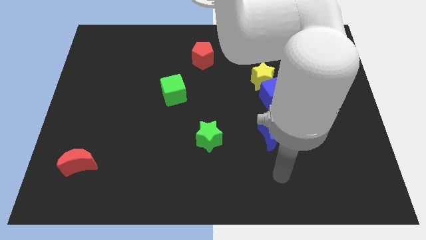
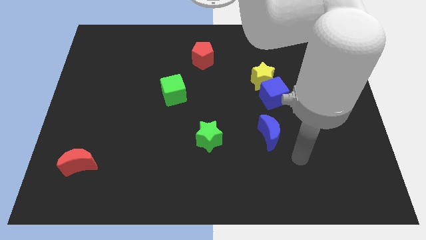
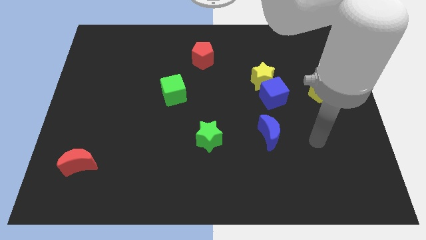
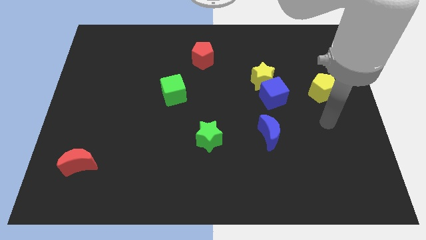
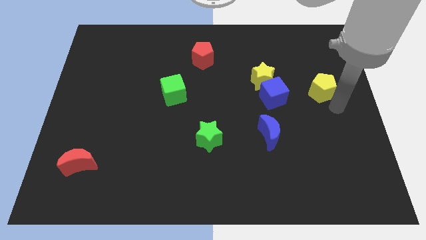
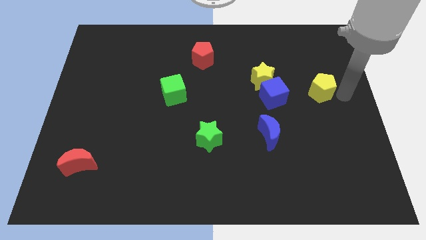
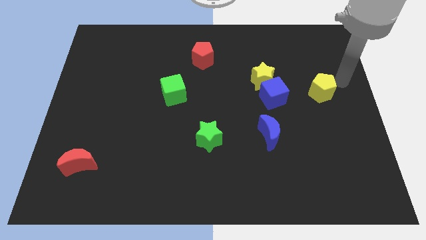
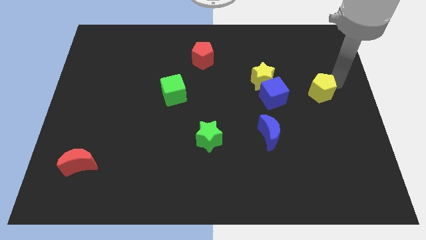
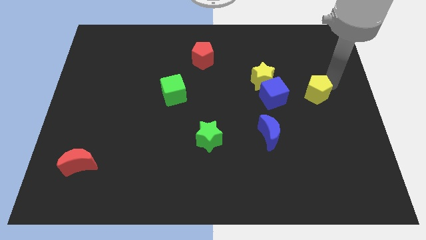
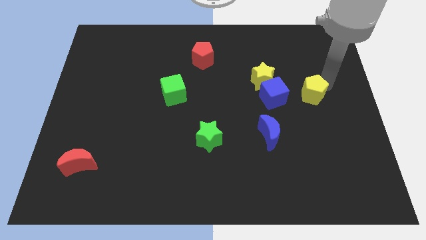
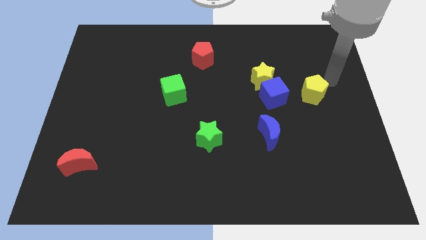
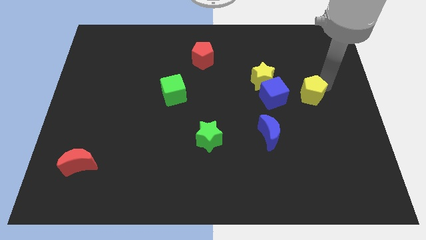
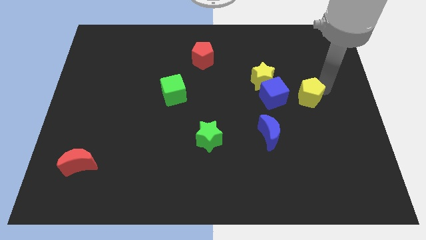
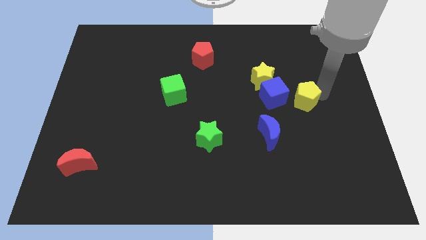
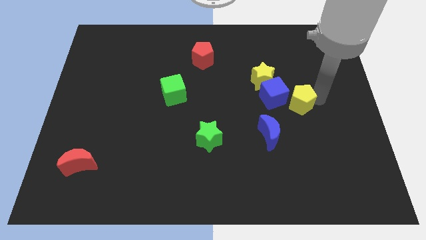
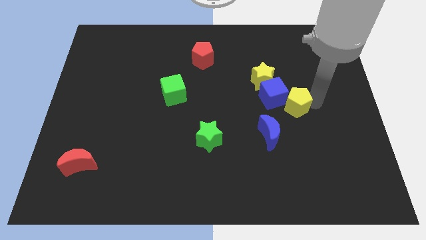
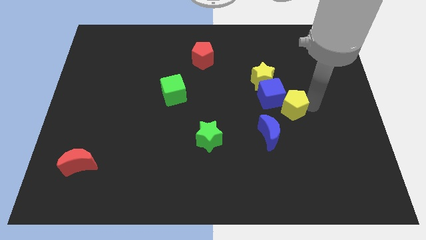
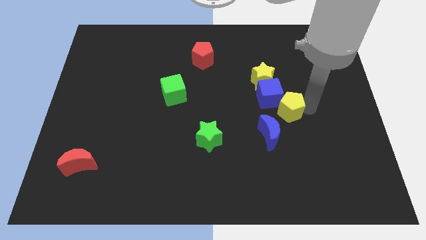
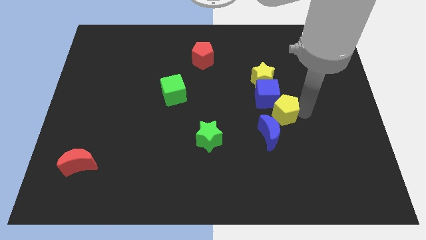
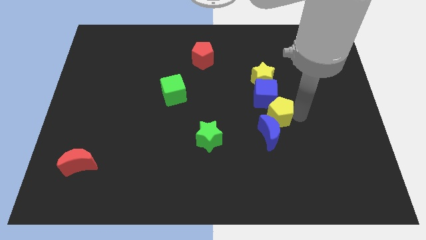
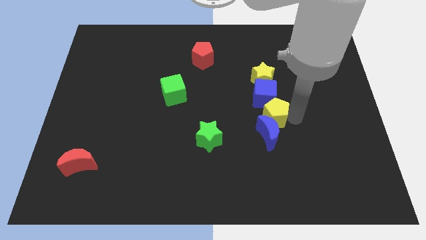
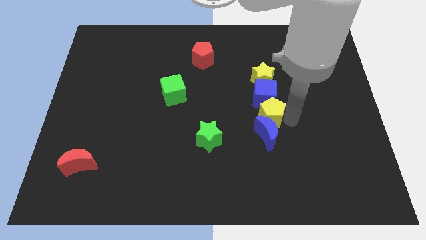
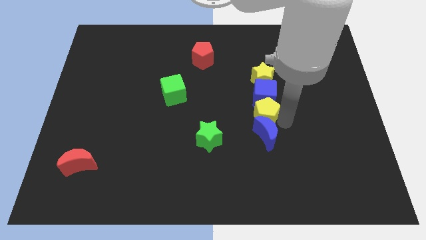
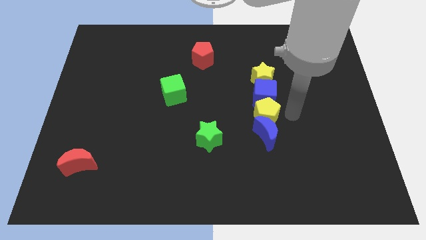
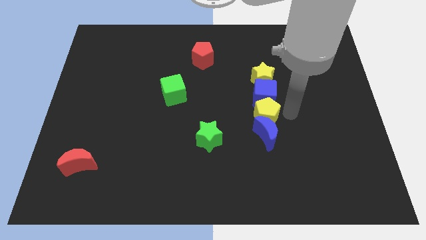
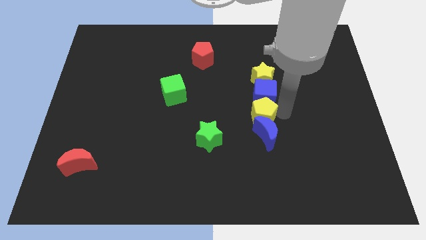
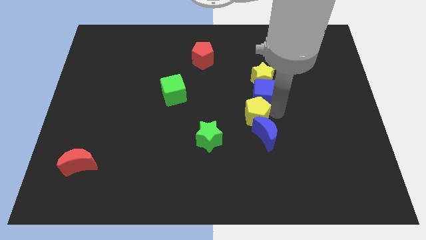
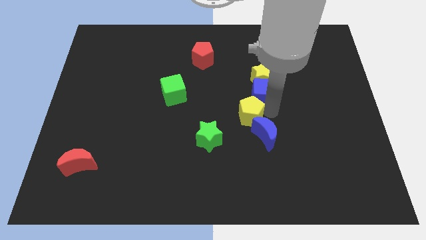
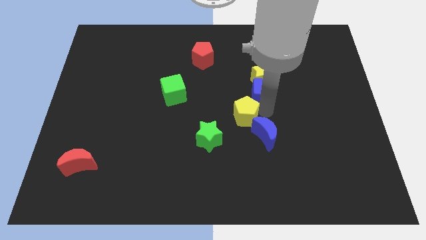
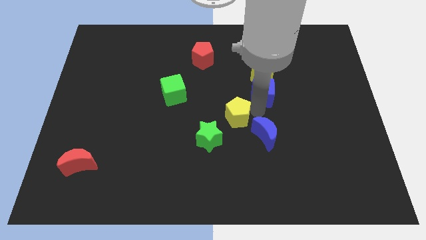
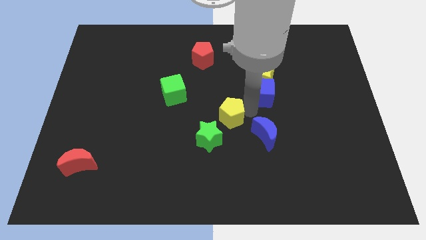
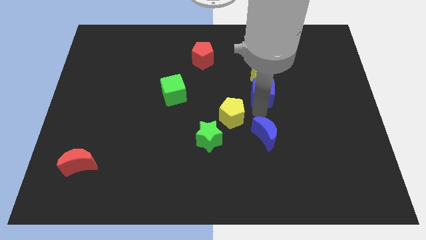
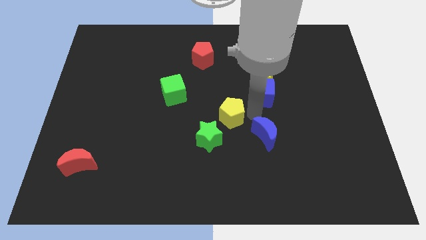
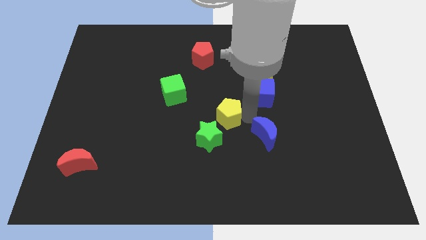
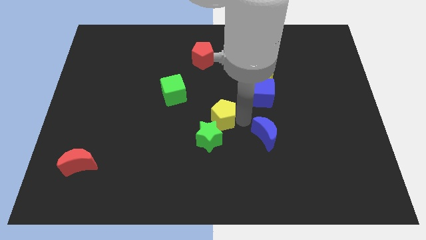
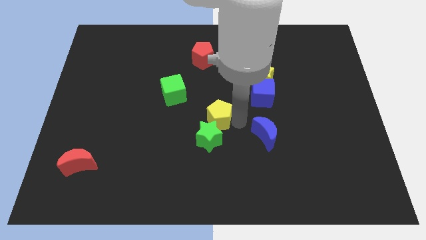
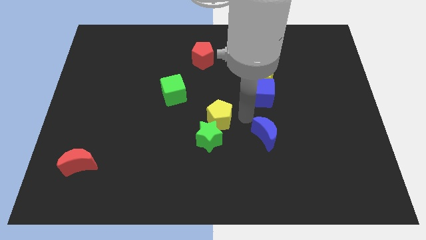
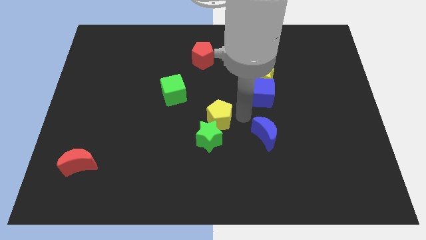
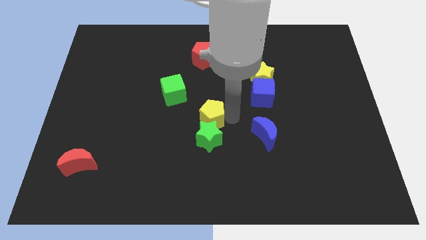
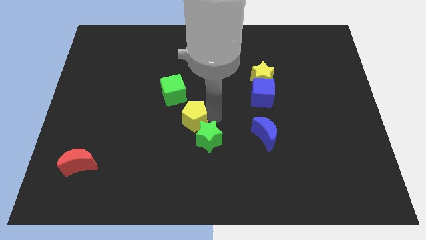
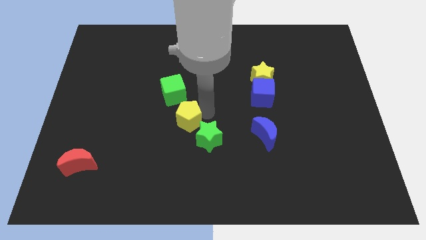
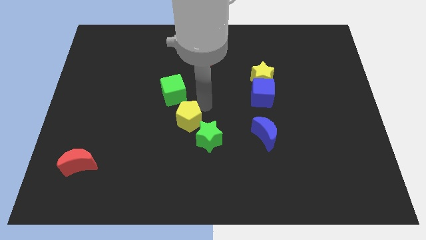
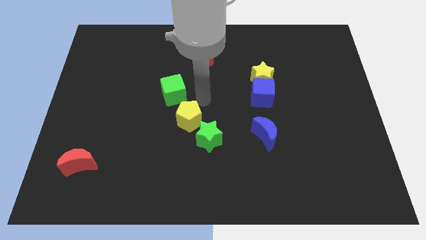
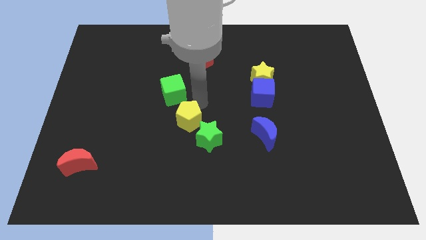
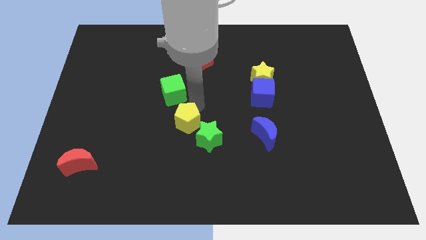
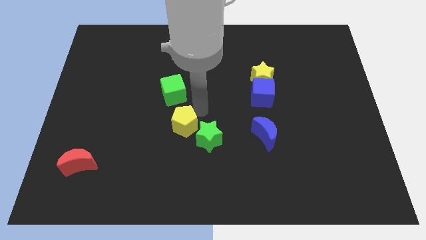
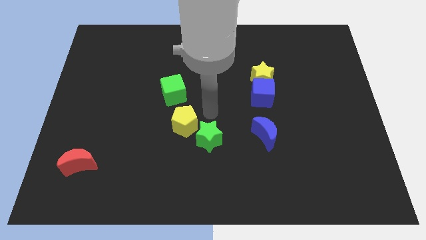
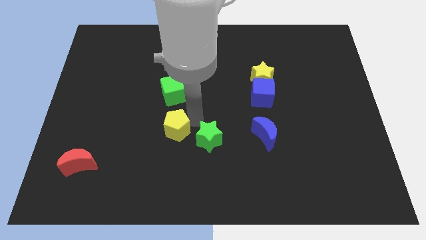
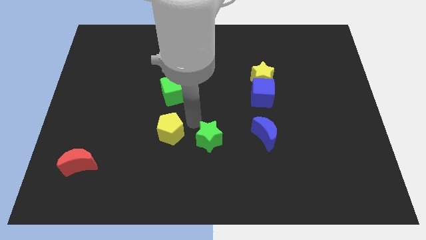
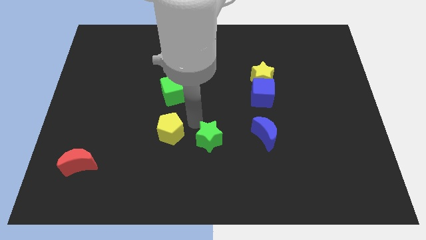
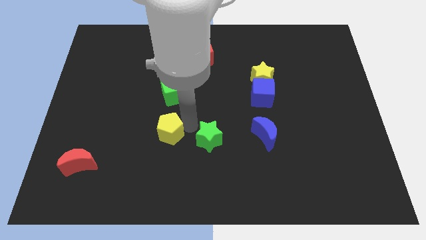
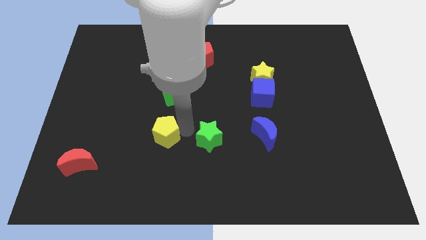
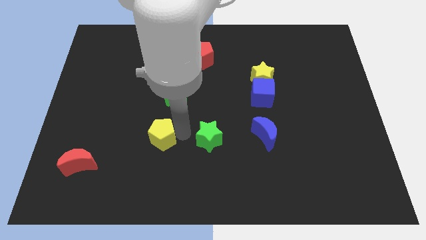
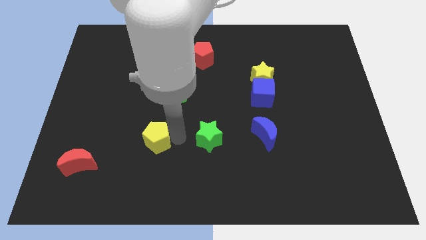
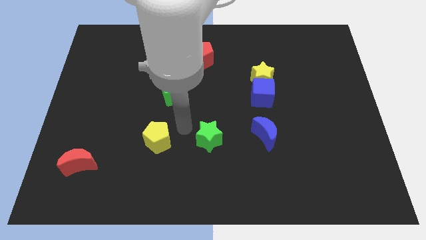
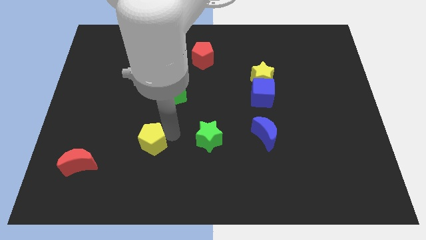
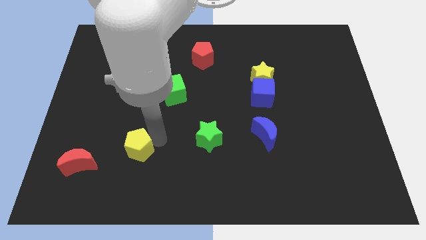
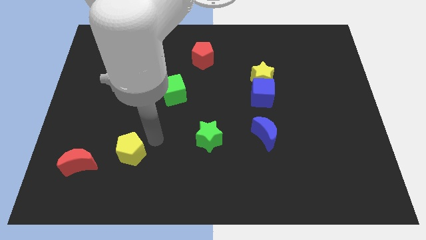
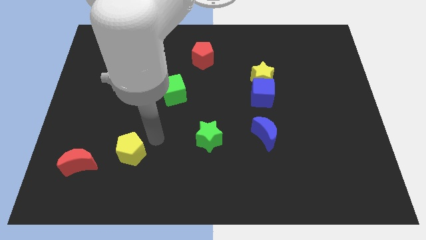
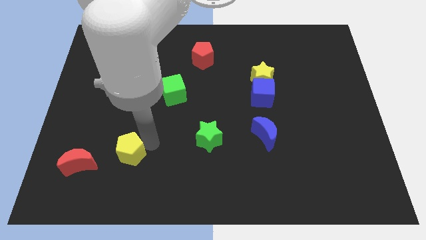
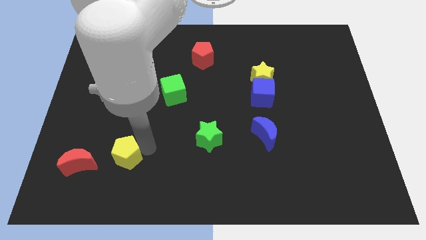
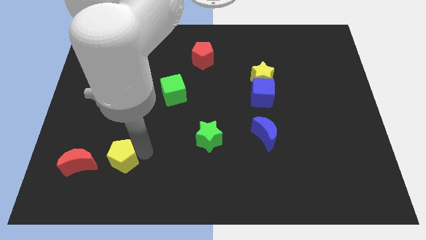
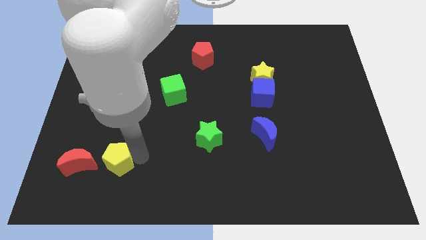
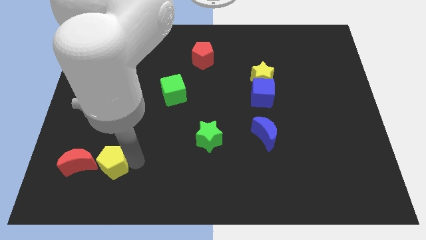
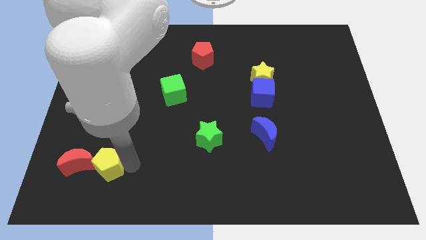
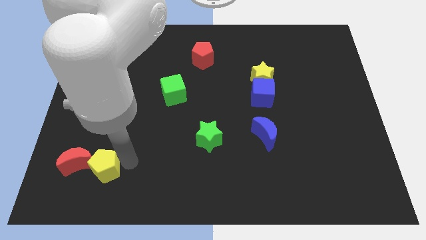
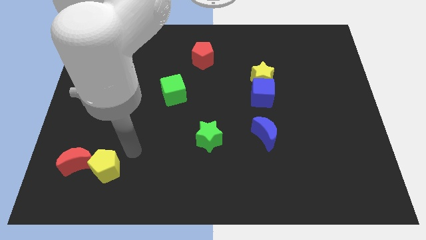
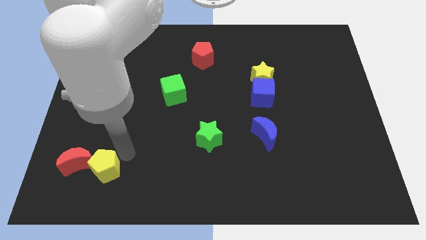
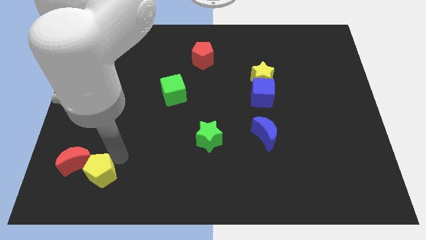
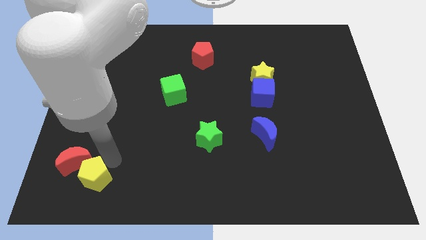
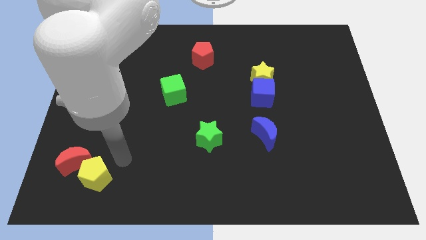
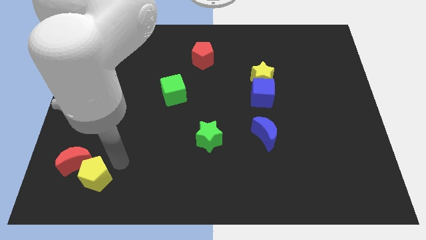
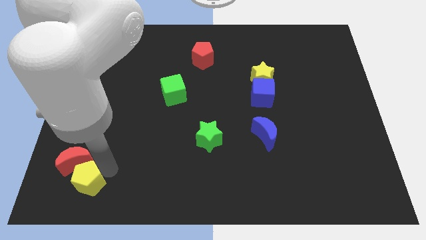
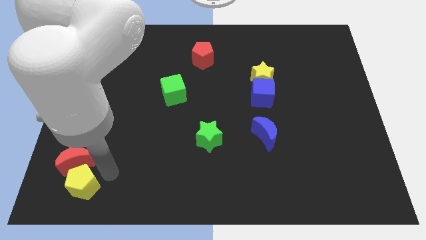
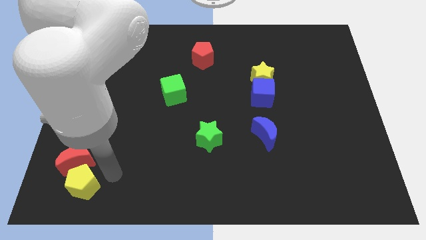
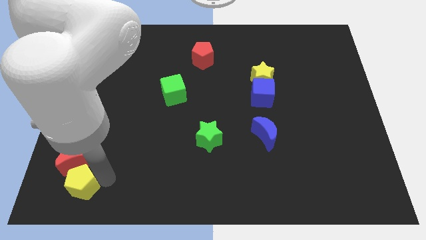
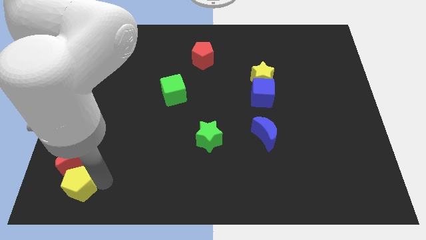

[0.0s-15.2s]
slide the yellow pentagon to the bottom left

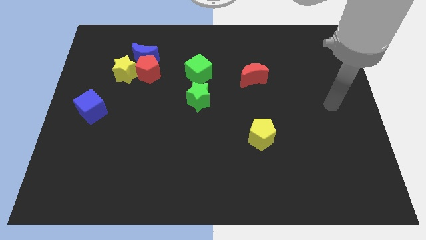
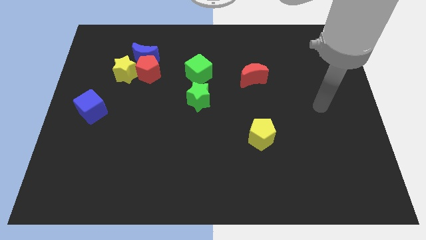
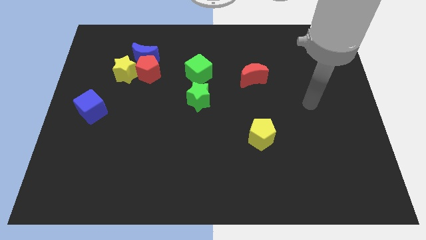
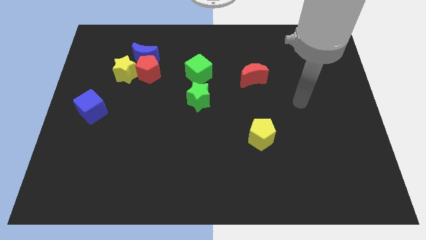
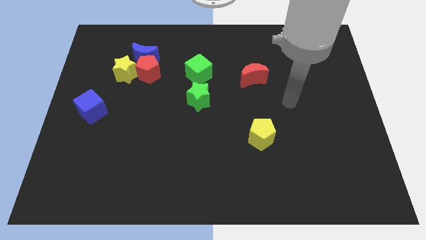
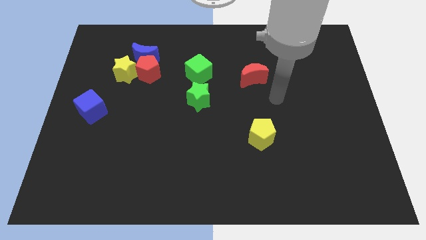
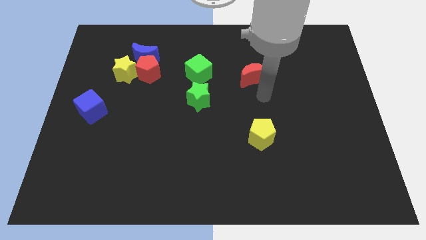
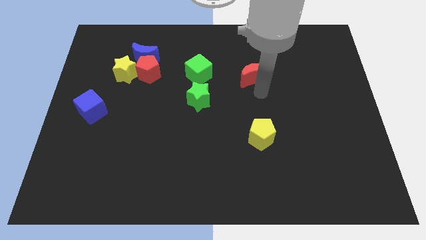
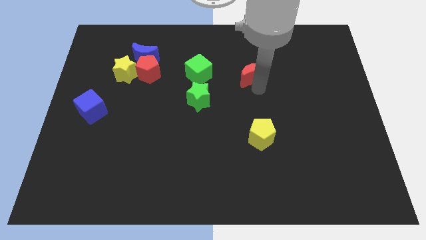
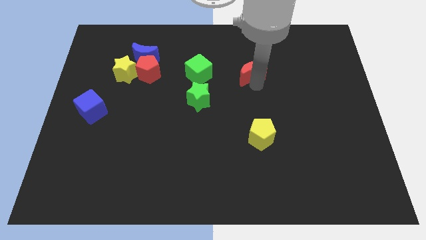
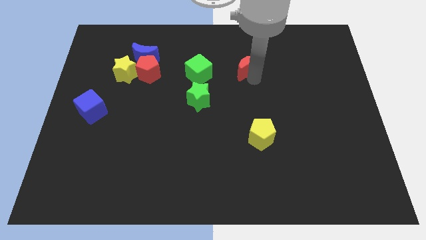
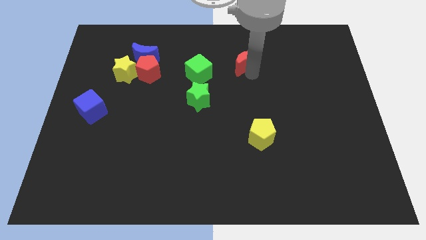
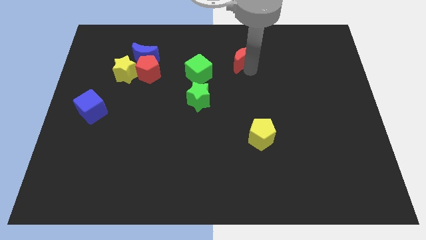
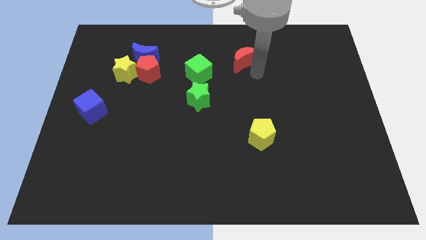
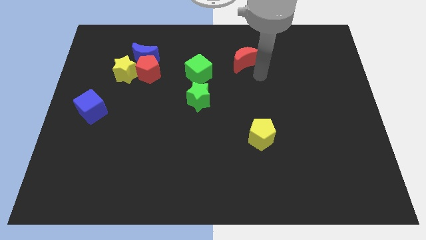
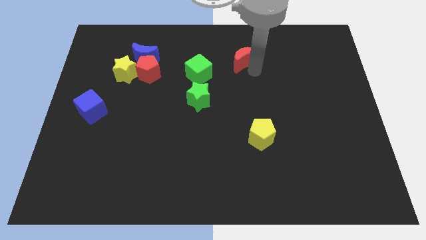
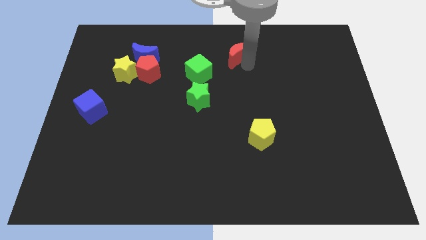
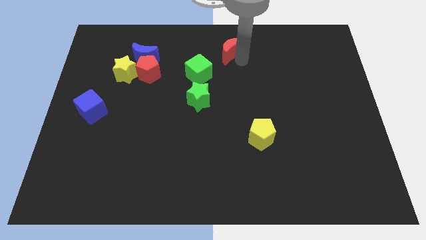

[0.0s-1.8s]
slide the red moon to the towards your base
